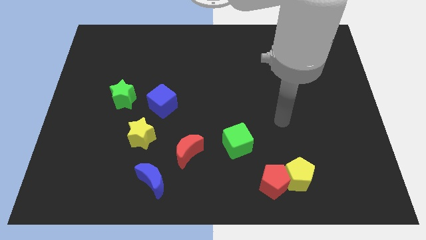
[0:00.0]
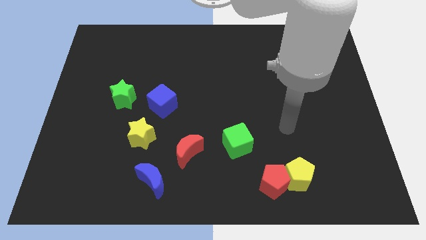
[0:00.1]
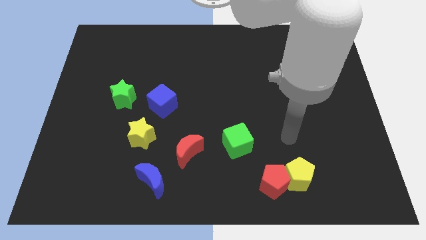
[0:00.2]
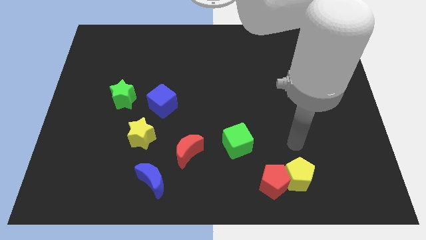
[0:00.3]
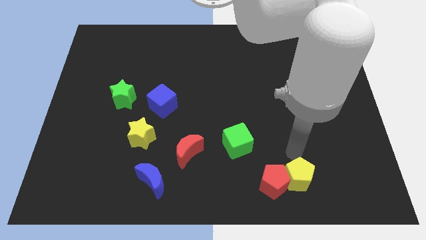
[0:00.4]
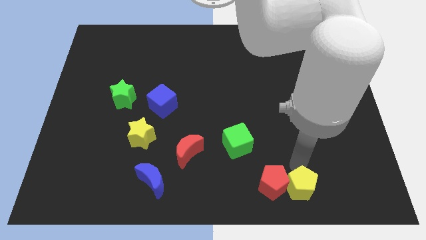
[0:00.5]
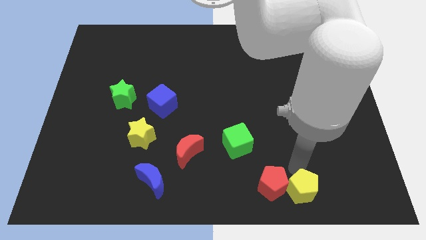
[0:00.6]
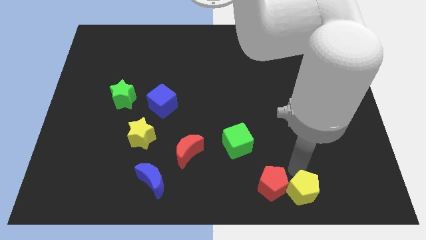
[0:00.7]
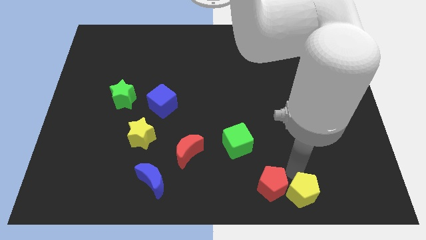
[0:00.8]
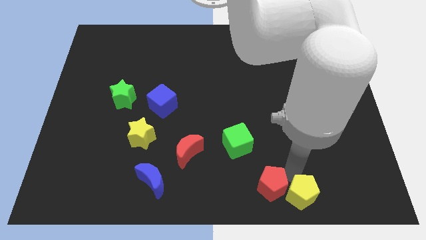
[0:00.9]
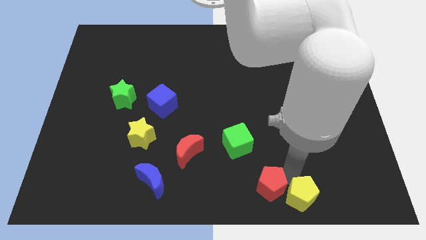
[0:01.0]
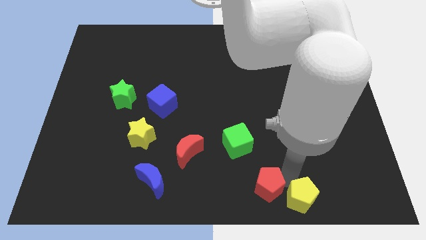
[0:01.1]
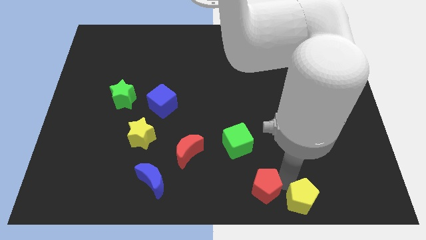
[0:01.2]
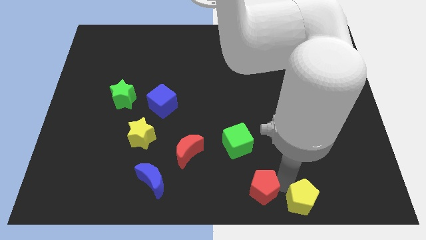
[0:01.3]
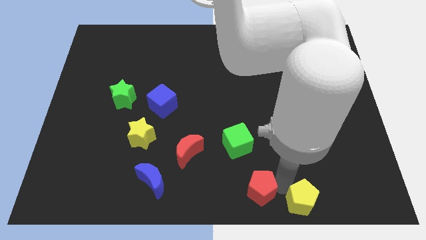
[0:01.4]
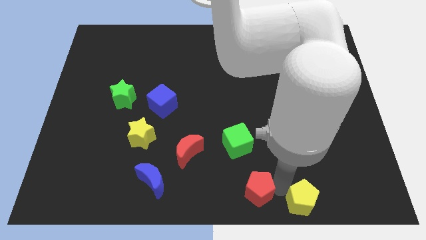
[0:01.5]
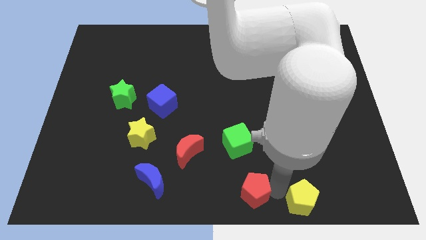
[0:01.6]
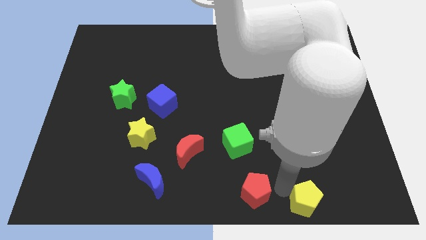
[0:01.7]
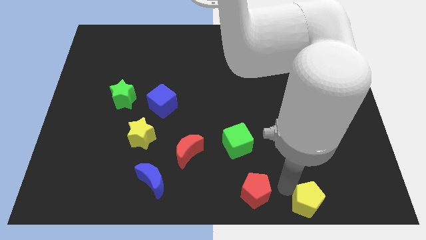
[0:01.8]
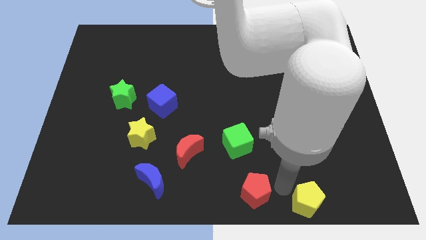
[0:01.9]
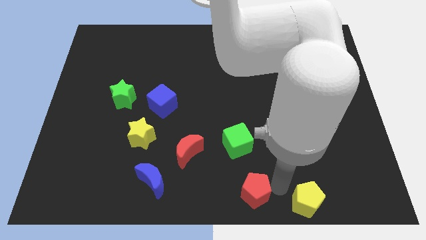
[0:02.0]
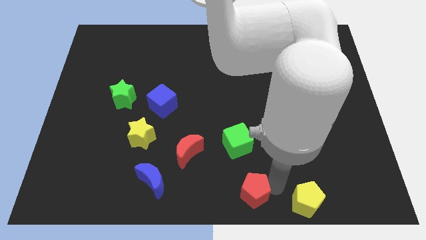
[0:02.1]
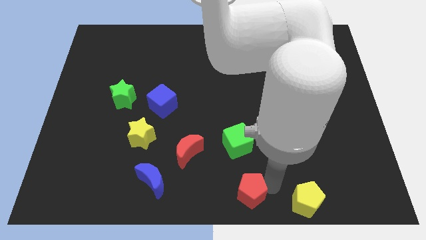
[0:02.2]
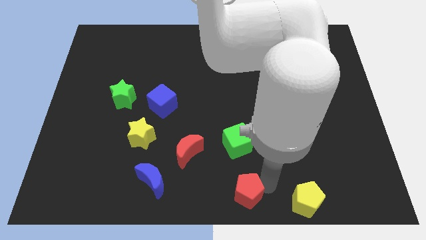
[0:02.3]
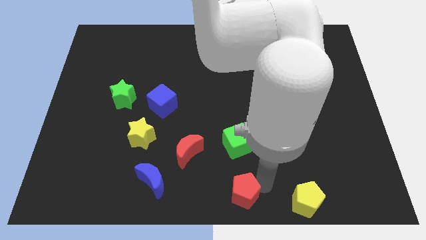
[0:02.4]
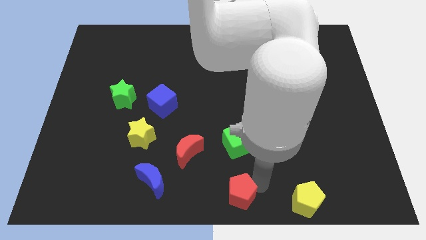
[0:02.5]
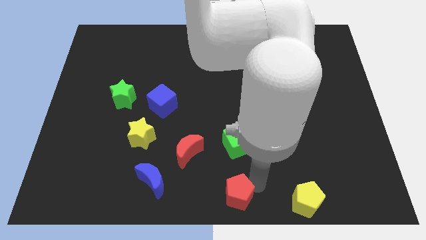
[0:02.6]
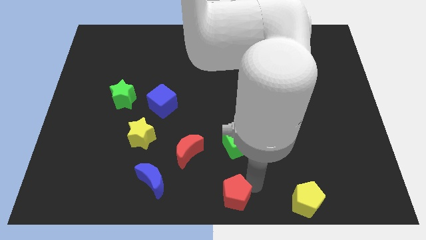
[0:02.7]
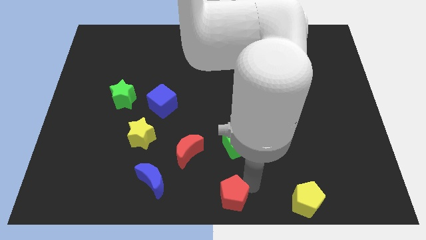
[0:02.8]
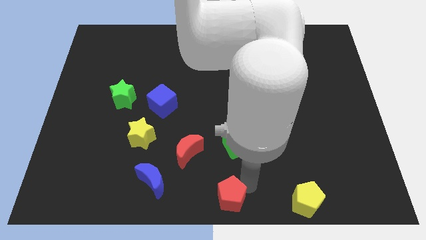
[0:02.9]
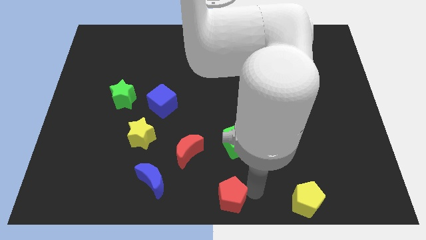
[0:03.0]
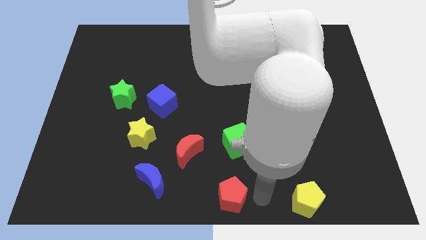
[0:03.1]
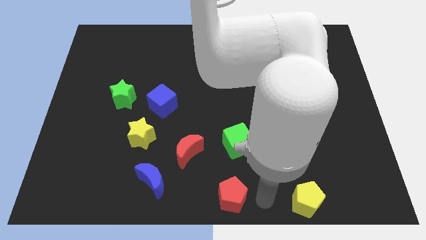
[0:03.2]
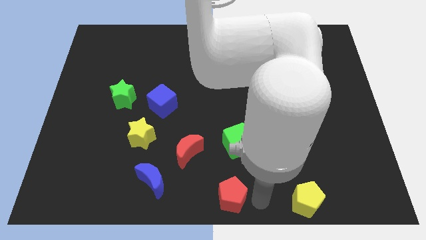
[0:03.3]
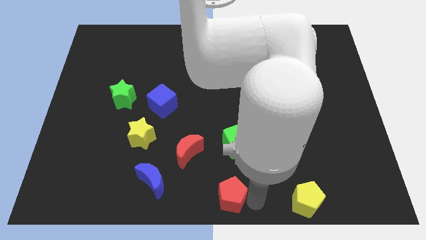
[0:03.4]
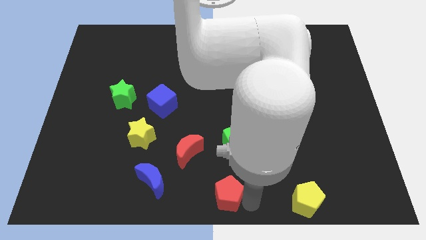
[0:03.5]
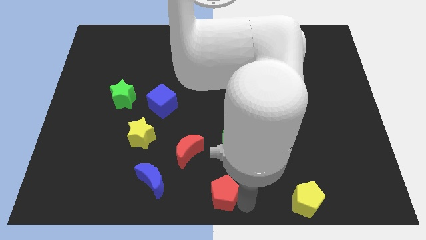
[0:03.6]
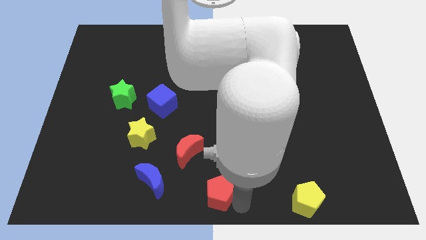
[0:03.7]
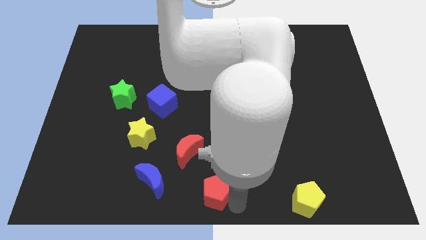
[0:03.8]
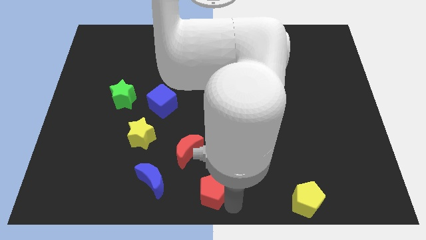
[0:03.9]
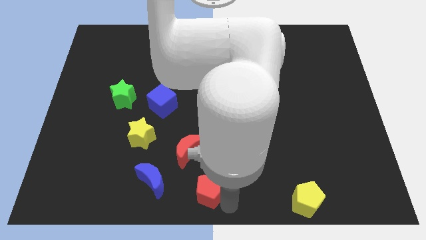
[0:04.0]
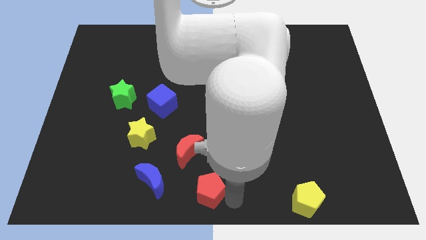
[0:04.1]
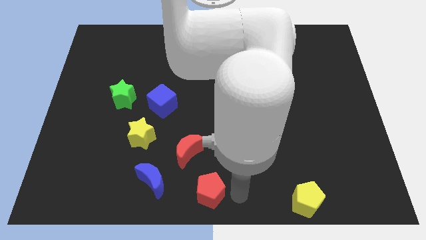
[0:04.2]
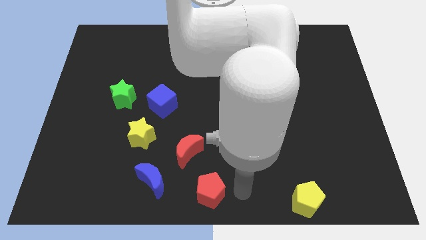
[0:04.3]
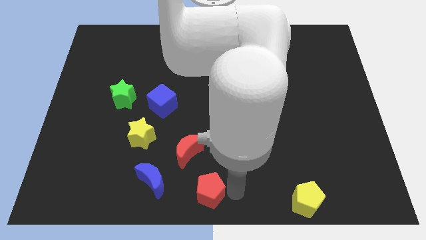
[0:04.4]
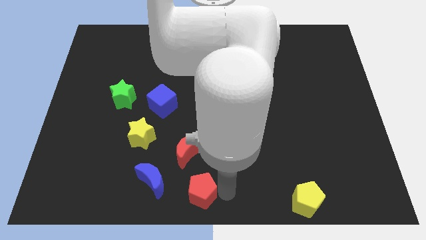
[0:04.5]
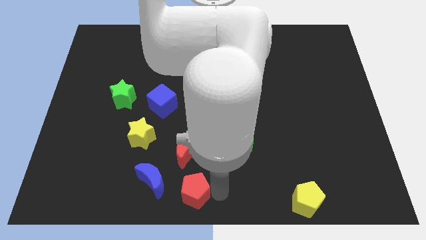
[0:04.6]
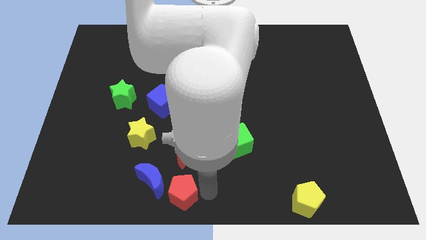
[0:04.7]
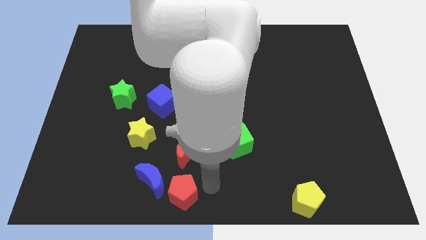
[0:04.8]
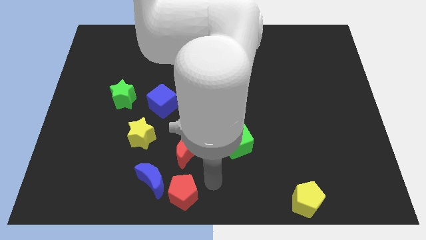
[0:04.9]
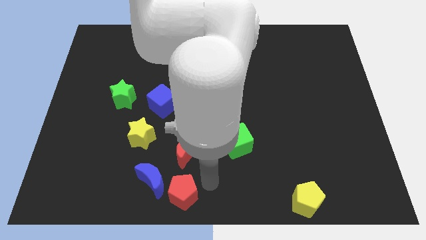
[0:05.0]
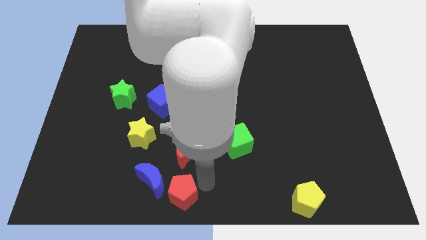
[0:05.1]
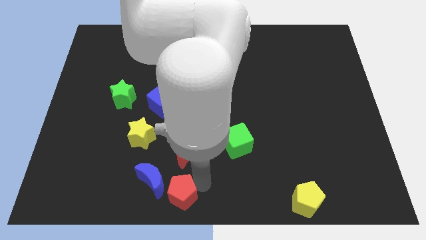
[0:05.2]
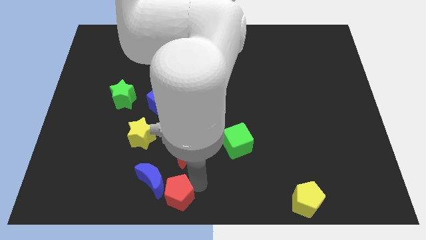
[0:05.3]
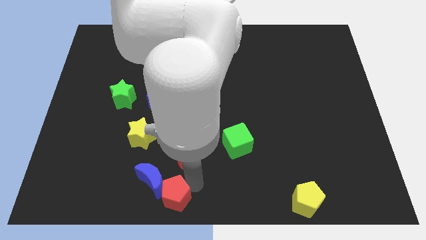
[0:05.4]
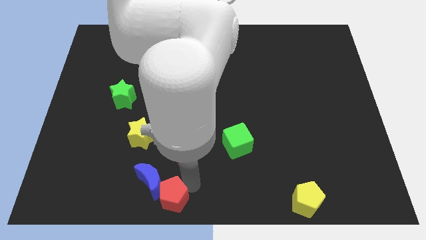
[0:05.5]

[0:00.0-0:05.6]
move the red pentagon left

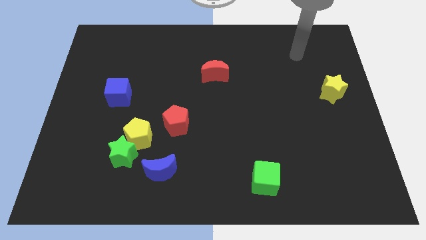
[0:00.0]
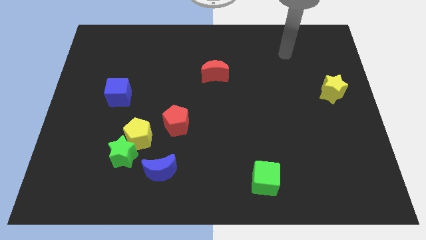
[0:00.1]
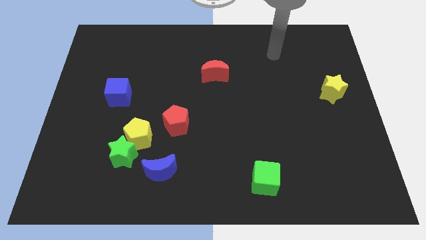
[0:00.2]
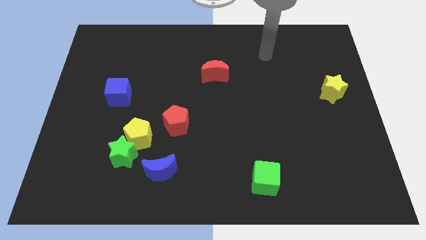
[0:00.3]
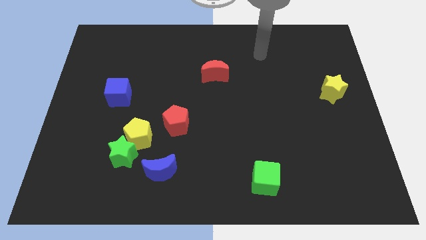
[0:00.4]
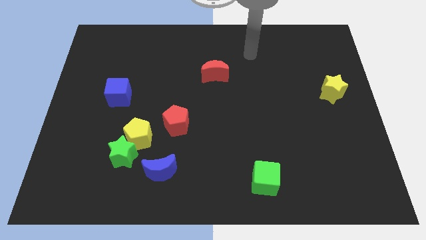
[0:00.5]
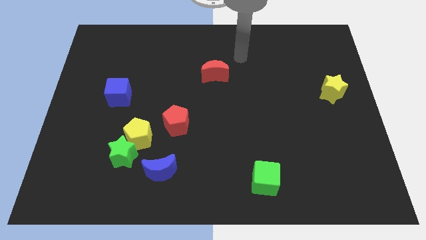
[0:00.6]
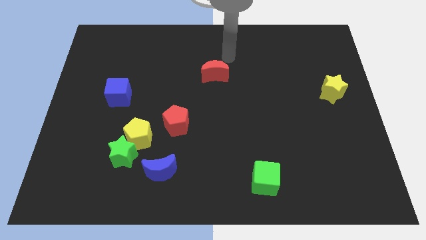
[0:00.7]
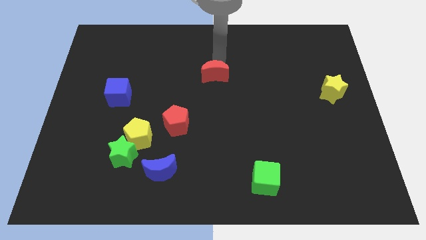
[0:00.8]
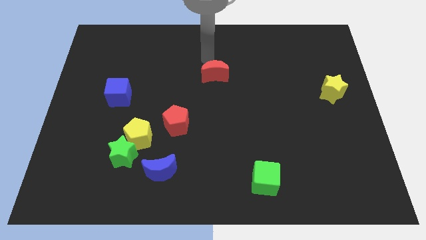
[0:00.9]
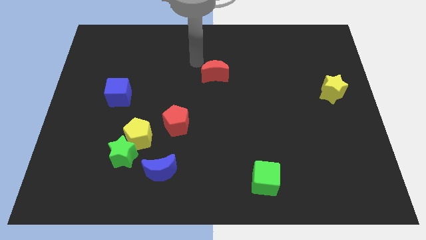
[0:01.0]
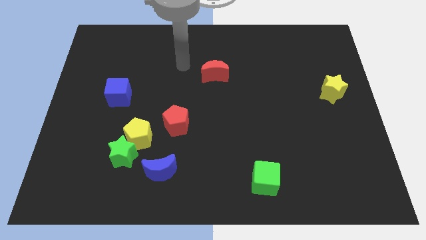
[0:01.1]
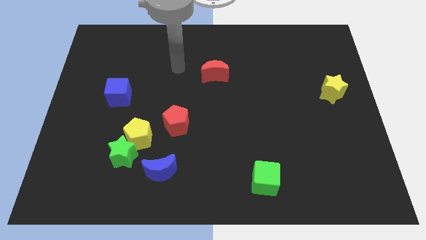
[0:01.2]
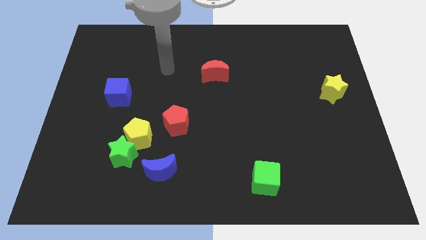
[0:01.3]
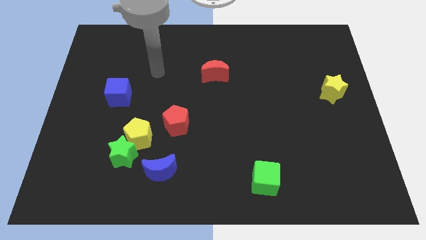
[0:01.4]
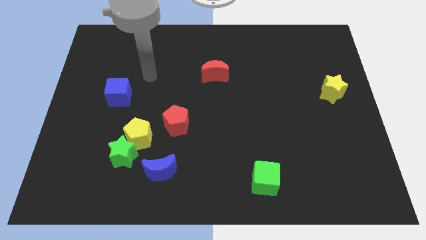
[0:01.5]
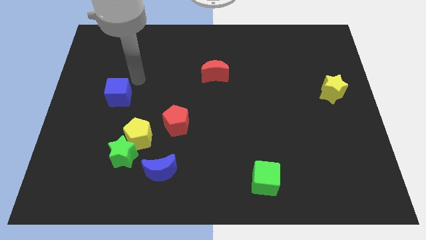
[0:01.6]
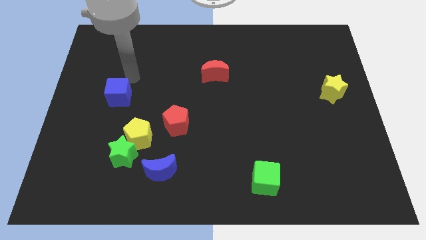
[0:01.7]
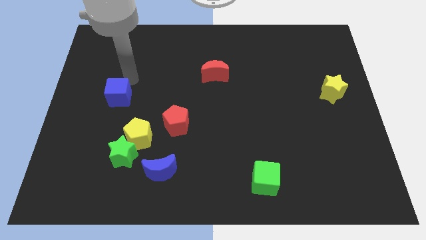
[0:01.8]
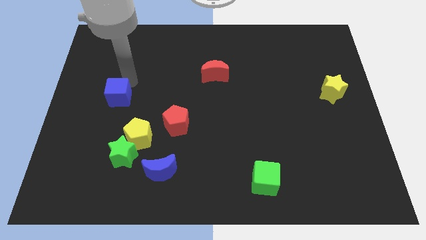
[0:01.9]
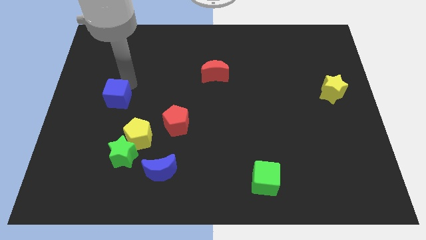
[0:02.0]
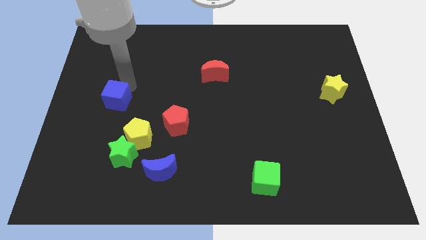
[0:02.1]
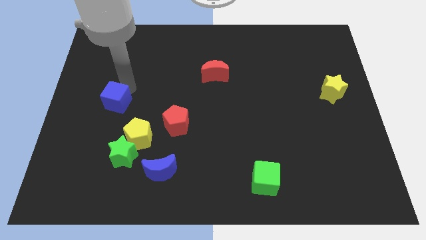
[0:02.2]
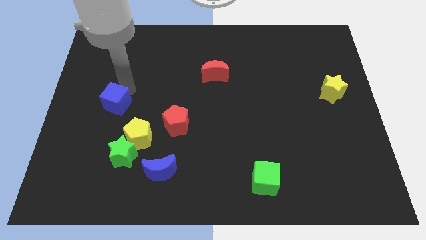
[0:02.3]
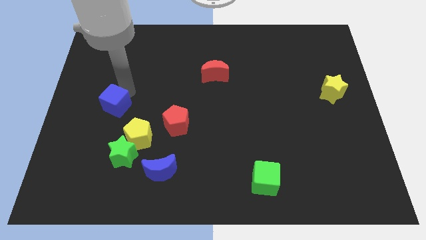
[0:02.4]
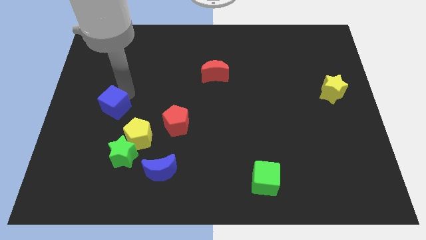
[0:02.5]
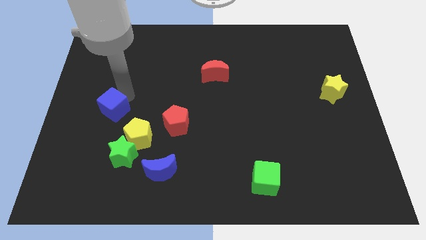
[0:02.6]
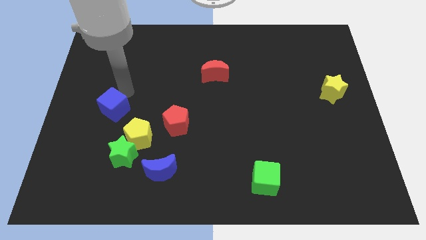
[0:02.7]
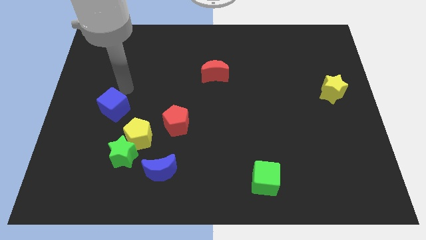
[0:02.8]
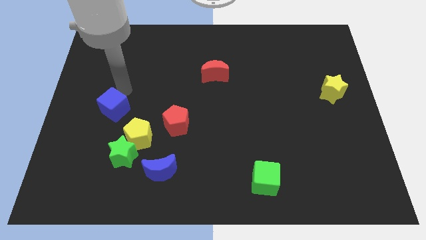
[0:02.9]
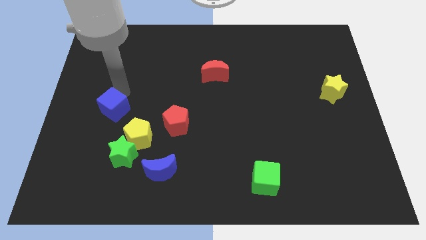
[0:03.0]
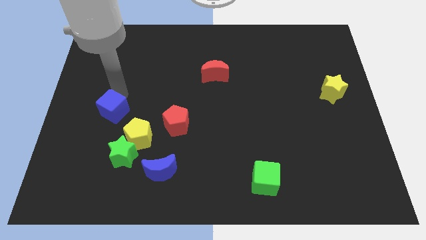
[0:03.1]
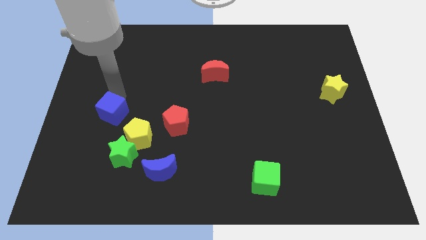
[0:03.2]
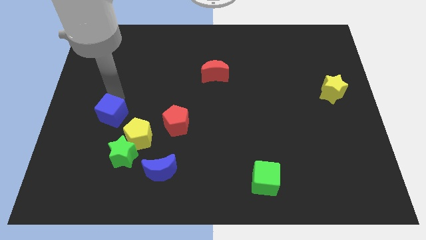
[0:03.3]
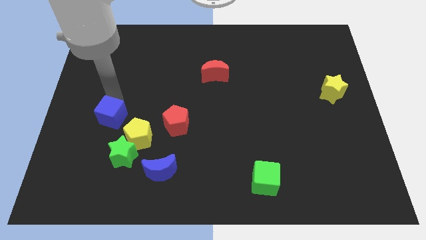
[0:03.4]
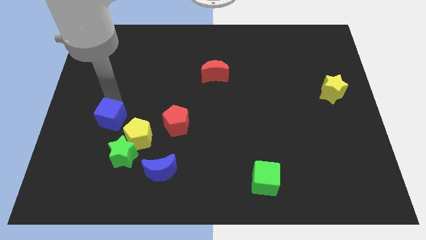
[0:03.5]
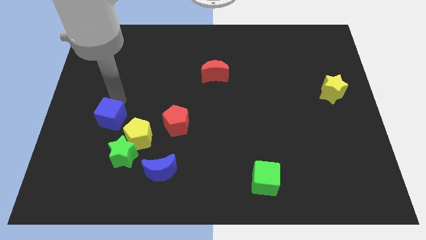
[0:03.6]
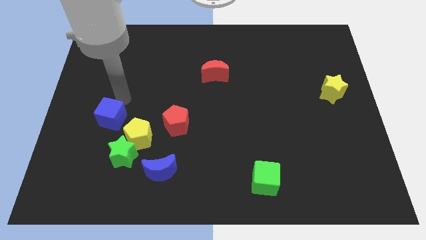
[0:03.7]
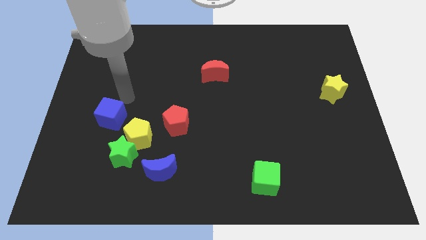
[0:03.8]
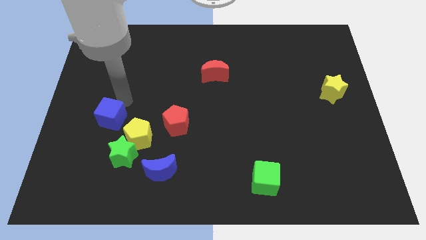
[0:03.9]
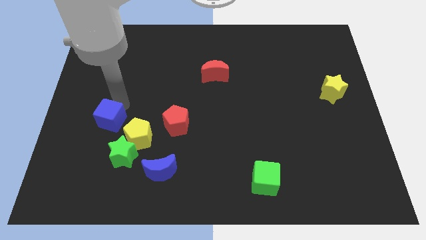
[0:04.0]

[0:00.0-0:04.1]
slightly push the blue cube down
